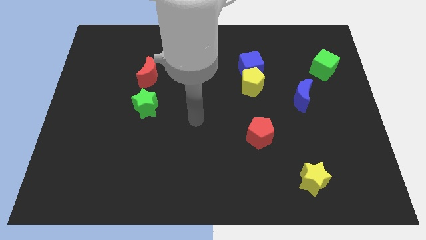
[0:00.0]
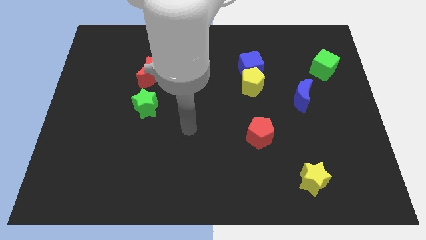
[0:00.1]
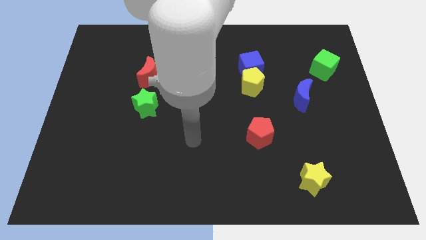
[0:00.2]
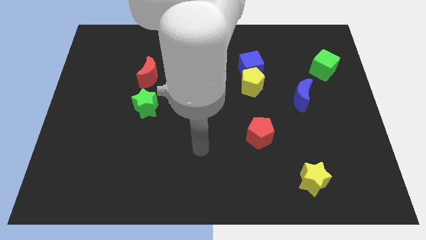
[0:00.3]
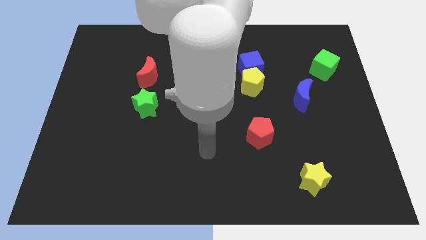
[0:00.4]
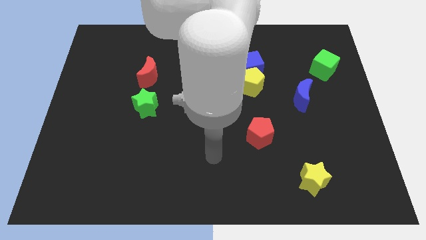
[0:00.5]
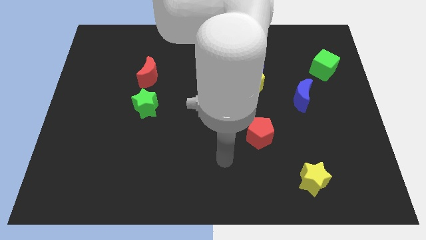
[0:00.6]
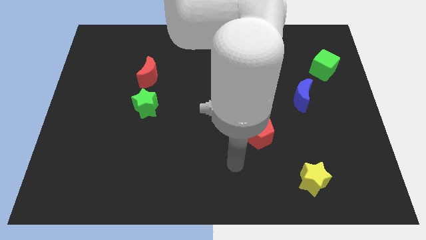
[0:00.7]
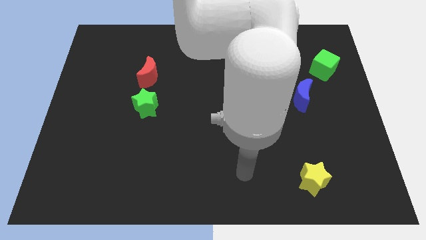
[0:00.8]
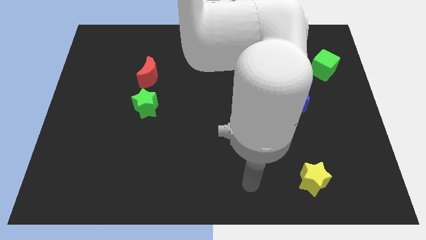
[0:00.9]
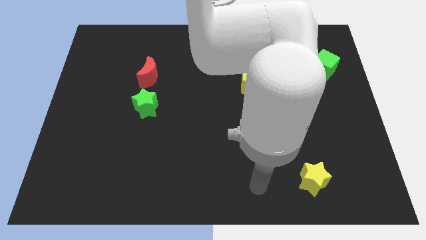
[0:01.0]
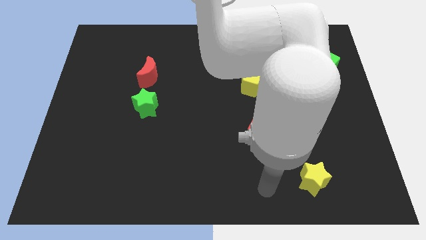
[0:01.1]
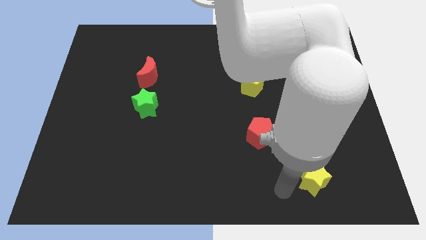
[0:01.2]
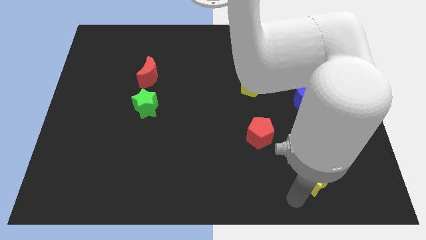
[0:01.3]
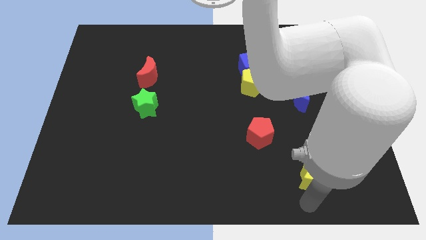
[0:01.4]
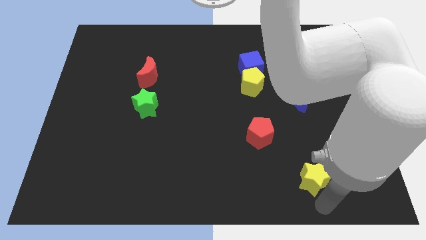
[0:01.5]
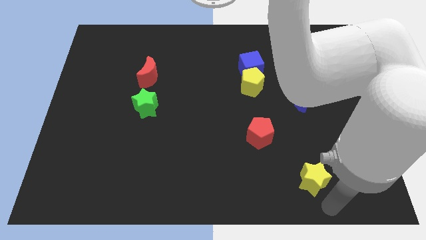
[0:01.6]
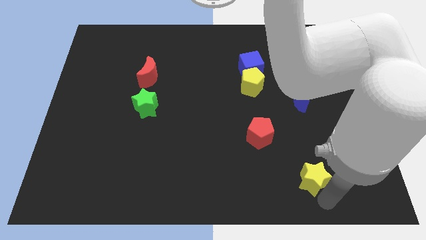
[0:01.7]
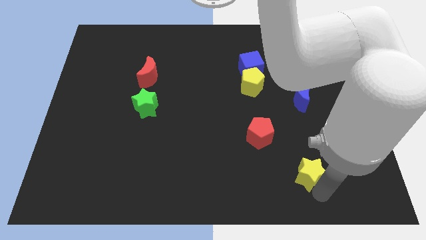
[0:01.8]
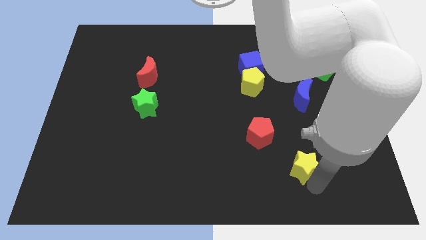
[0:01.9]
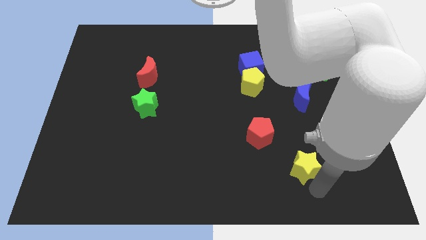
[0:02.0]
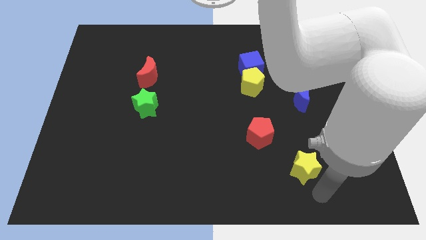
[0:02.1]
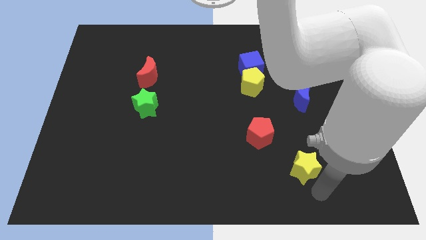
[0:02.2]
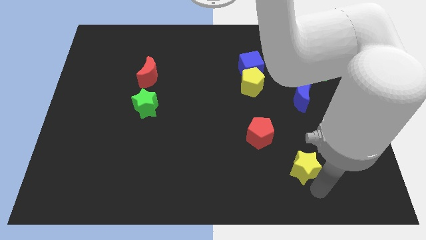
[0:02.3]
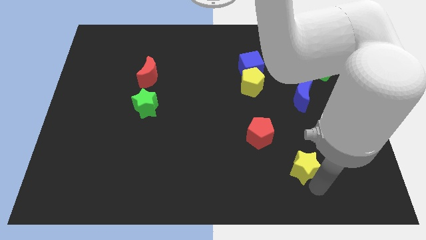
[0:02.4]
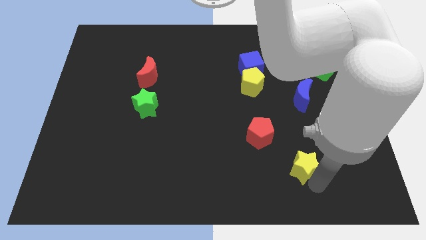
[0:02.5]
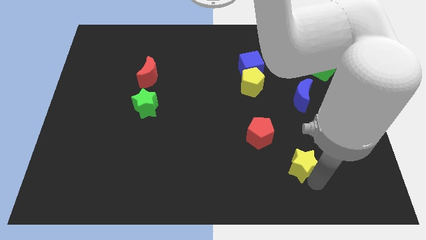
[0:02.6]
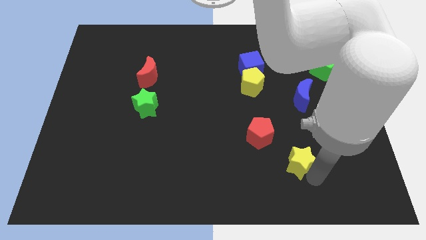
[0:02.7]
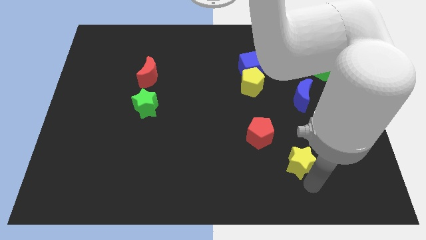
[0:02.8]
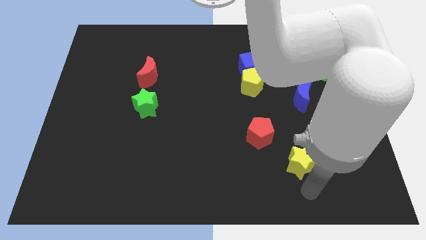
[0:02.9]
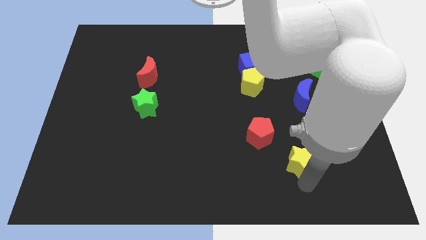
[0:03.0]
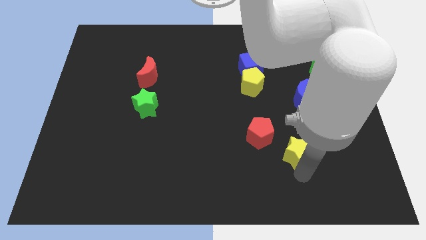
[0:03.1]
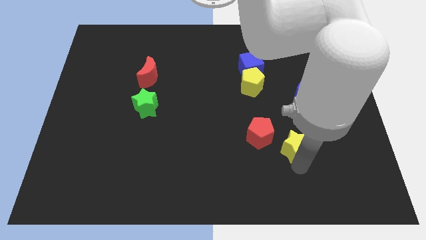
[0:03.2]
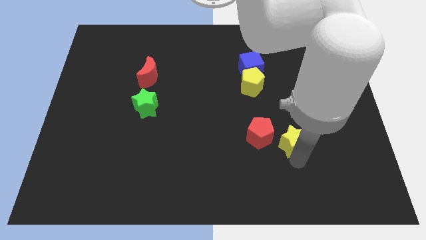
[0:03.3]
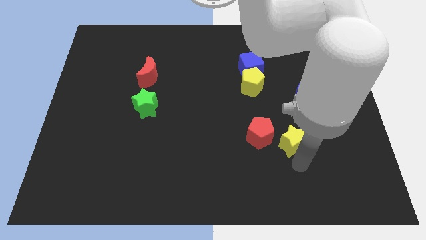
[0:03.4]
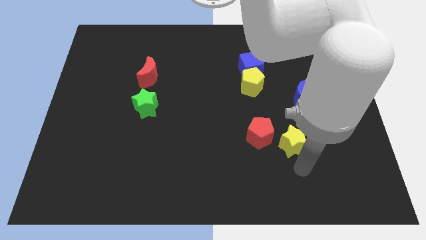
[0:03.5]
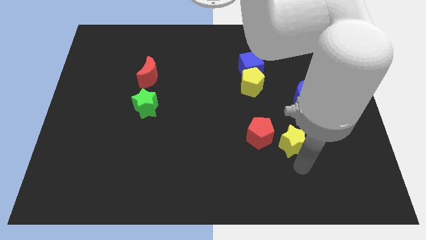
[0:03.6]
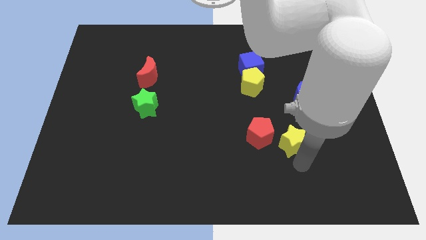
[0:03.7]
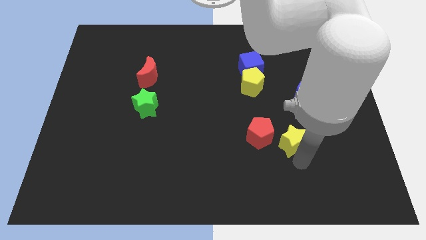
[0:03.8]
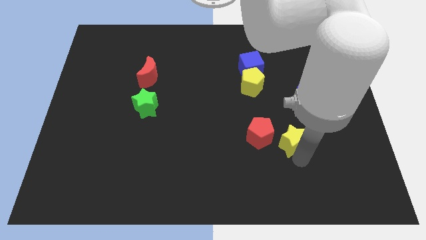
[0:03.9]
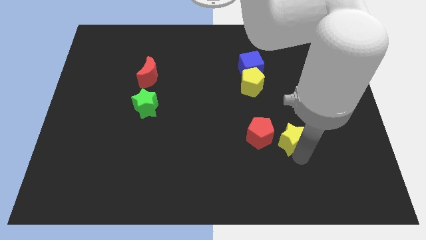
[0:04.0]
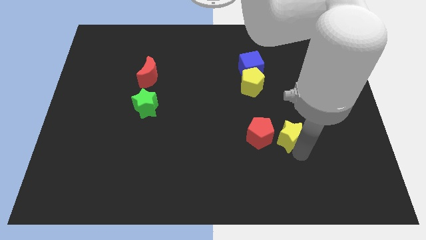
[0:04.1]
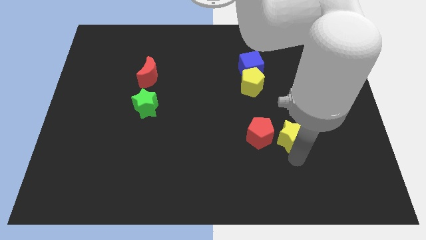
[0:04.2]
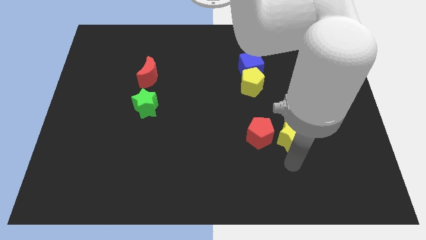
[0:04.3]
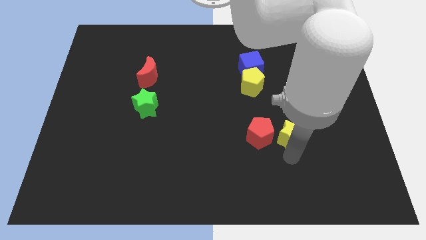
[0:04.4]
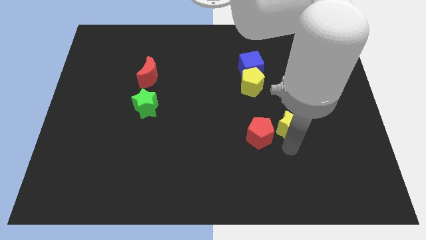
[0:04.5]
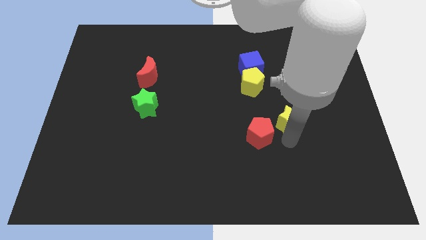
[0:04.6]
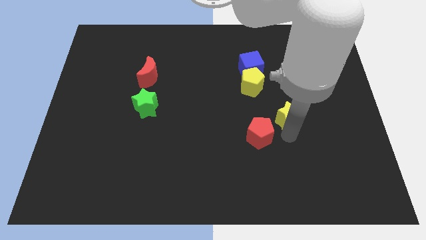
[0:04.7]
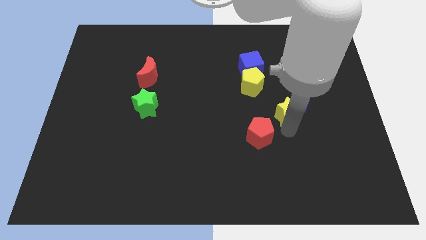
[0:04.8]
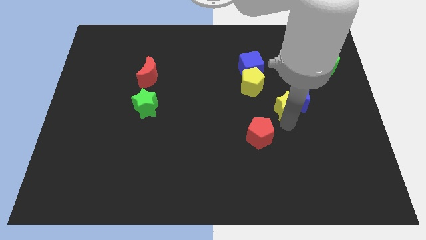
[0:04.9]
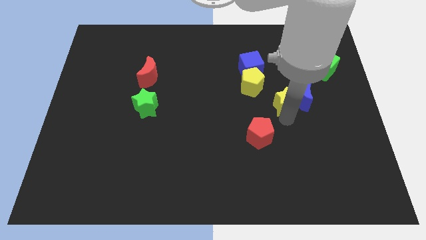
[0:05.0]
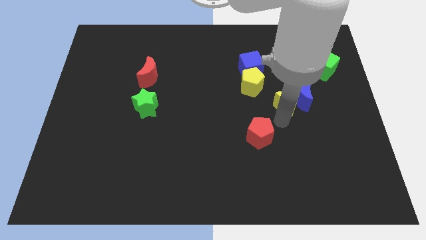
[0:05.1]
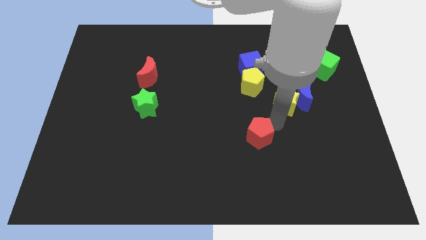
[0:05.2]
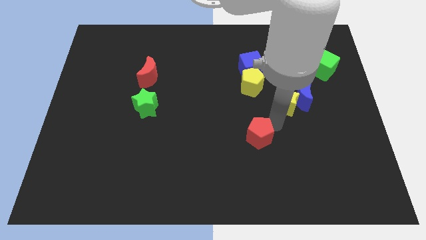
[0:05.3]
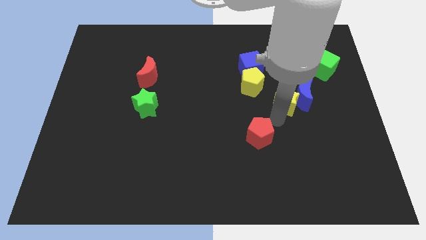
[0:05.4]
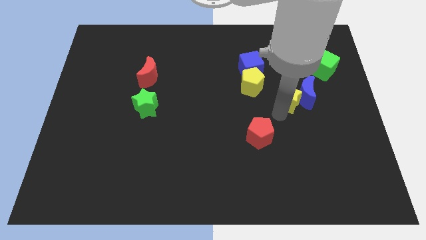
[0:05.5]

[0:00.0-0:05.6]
put the yellow star right of the yellow pentagon

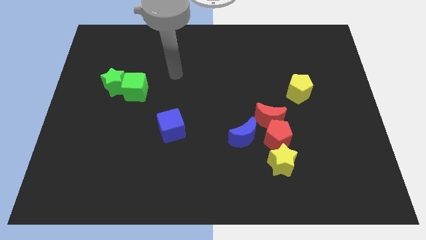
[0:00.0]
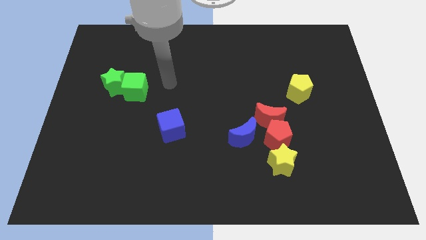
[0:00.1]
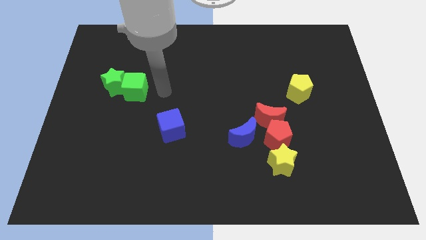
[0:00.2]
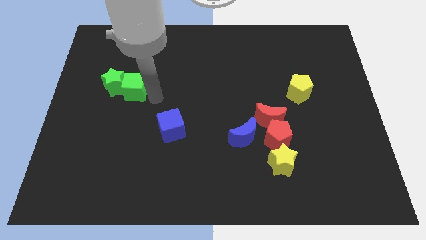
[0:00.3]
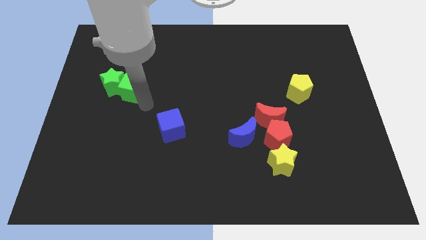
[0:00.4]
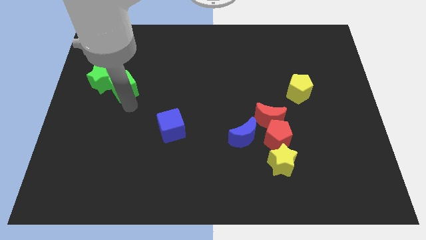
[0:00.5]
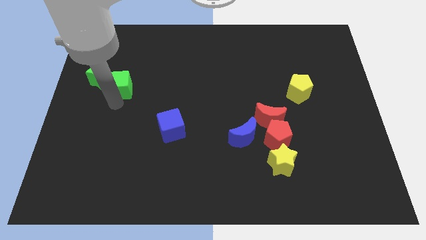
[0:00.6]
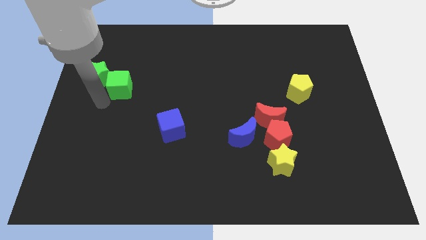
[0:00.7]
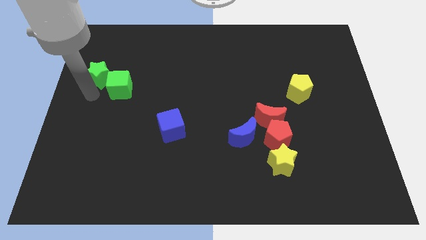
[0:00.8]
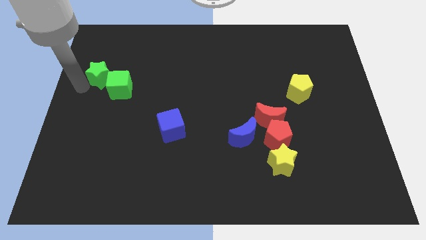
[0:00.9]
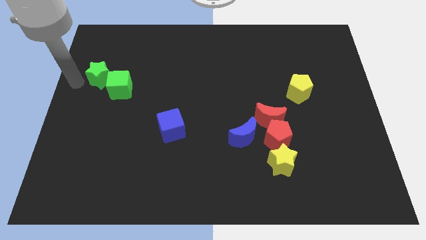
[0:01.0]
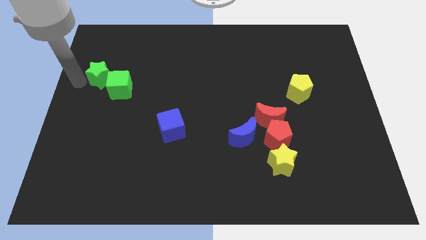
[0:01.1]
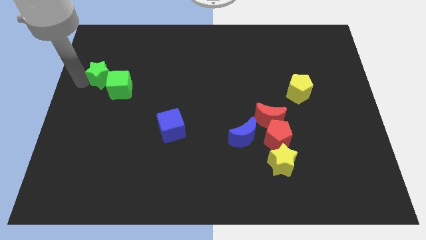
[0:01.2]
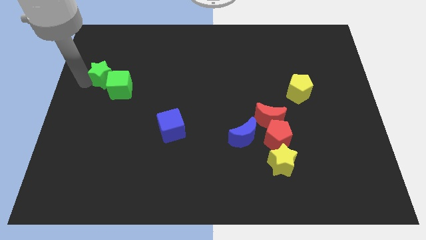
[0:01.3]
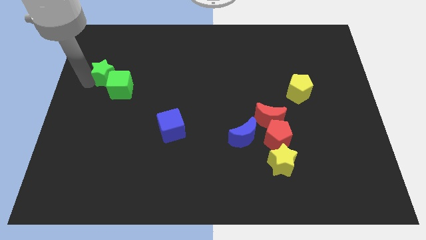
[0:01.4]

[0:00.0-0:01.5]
move the green star above the green cube
